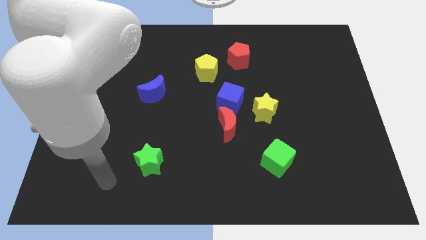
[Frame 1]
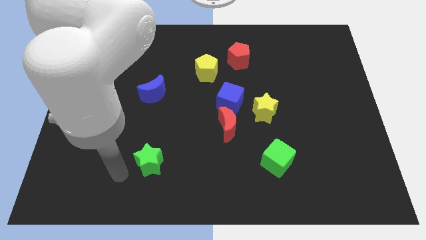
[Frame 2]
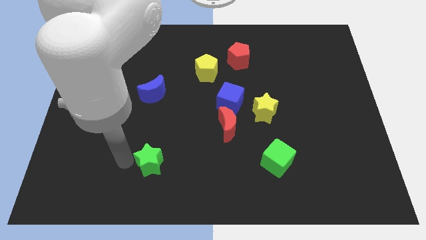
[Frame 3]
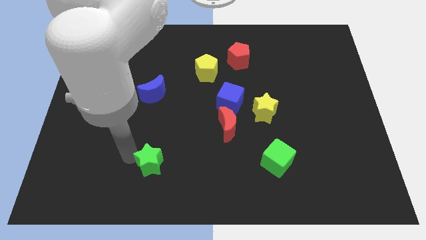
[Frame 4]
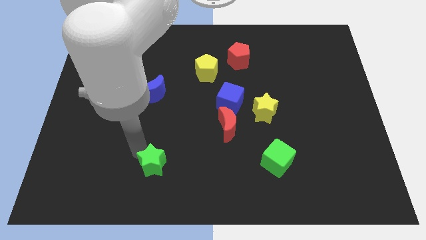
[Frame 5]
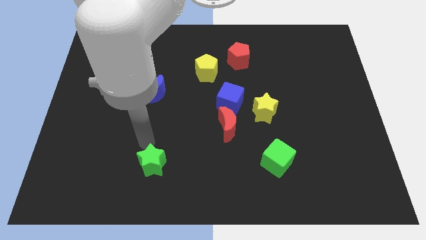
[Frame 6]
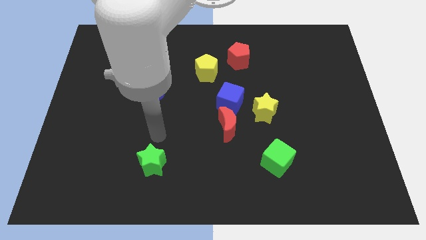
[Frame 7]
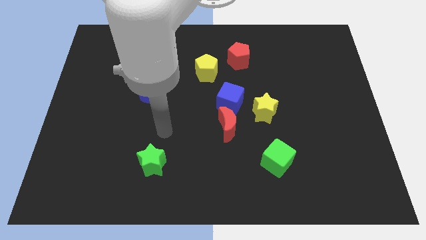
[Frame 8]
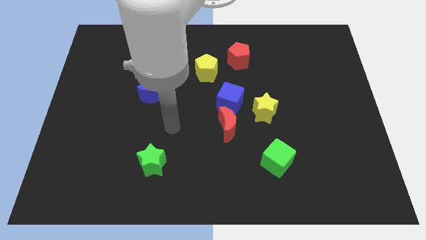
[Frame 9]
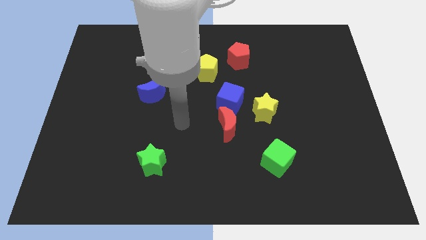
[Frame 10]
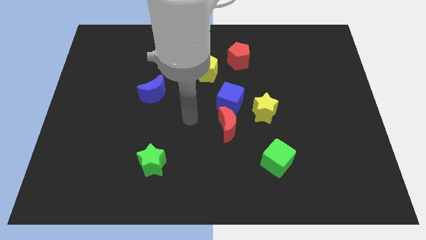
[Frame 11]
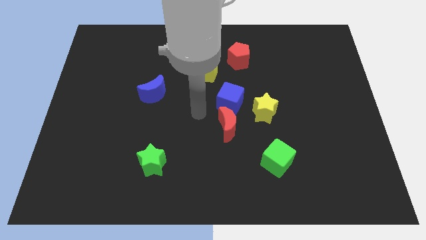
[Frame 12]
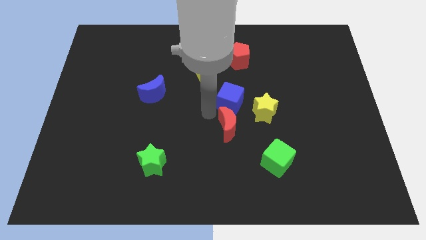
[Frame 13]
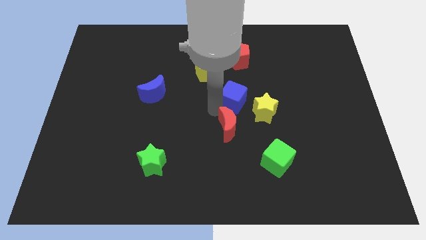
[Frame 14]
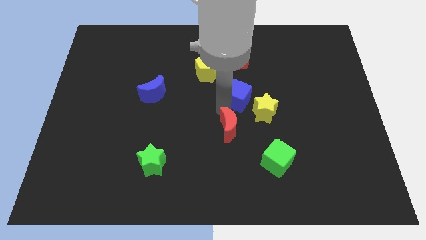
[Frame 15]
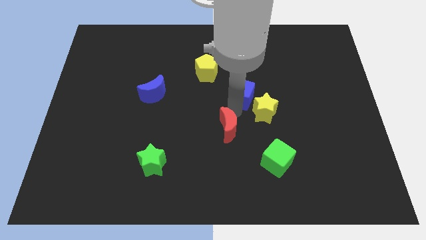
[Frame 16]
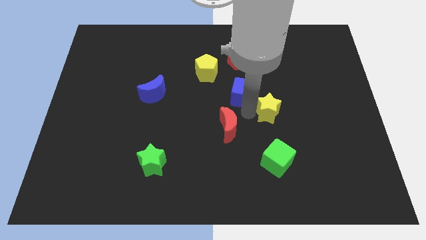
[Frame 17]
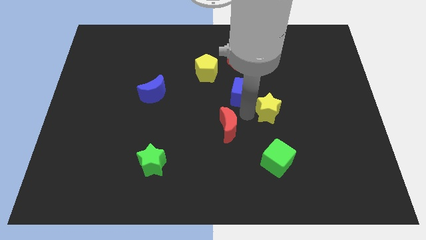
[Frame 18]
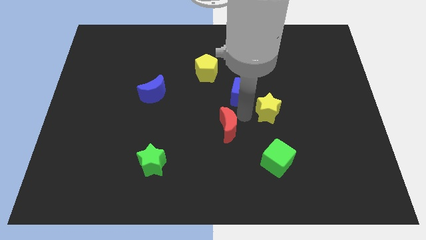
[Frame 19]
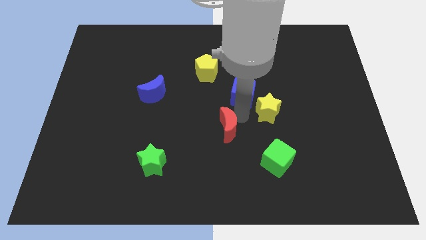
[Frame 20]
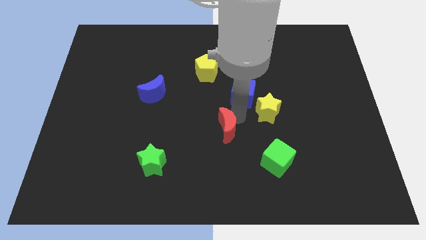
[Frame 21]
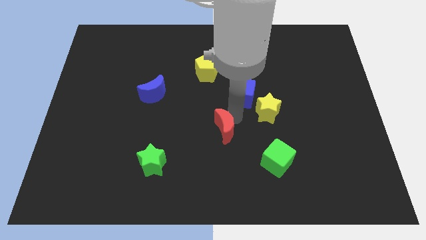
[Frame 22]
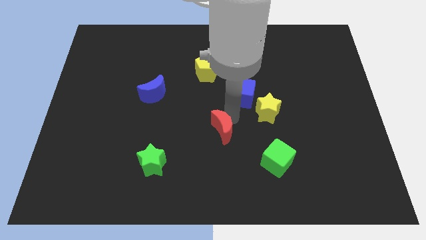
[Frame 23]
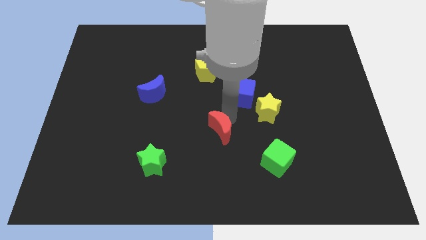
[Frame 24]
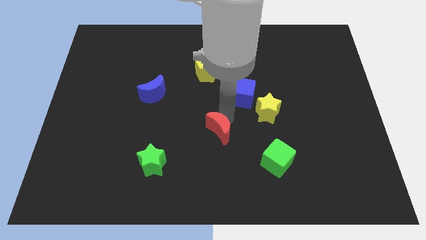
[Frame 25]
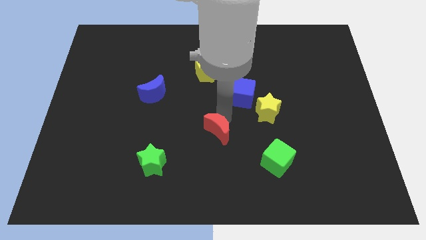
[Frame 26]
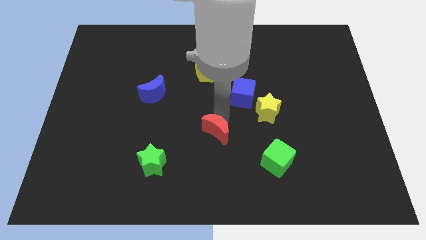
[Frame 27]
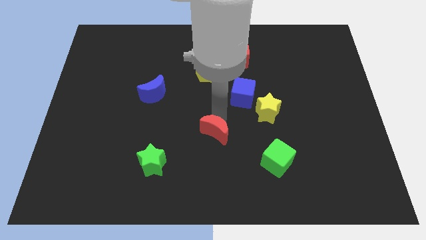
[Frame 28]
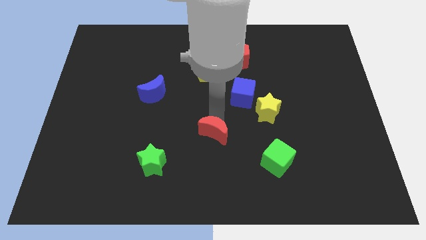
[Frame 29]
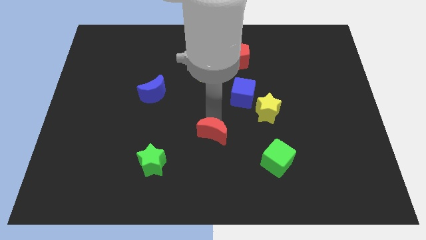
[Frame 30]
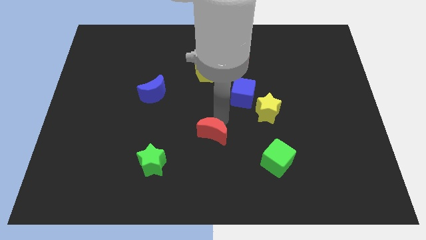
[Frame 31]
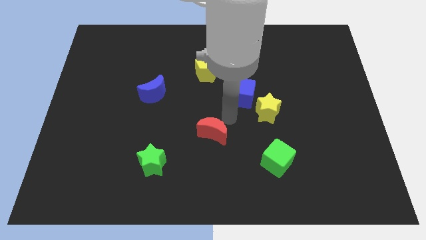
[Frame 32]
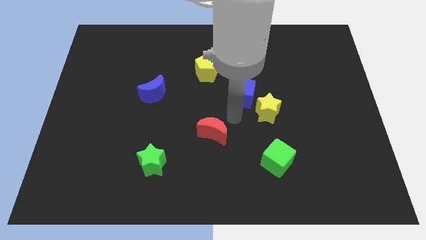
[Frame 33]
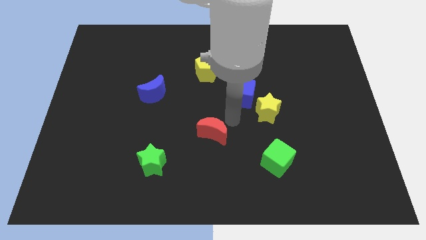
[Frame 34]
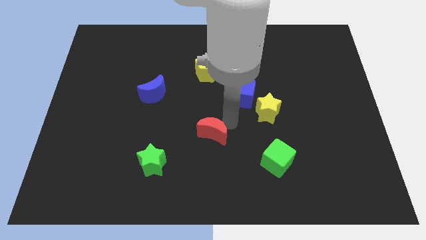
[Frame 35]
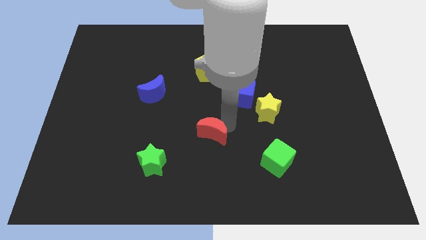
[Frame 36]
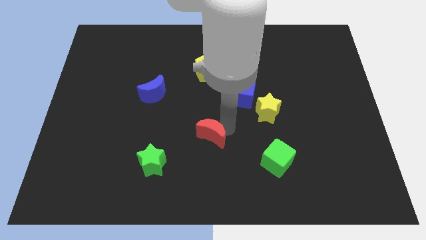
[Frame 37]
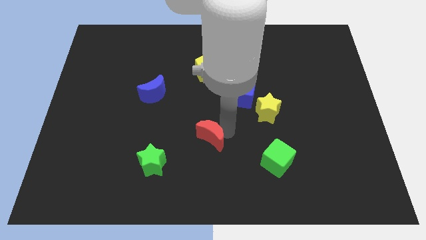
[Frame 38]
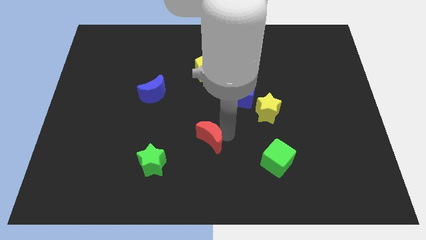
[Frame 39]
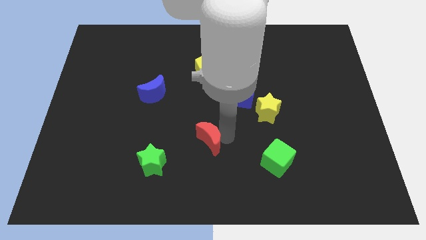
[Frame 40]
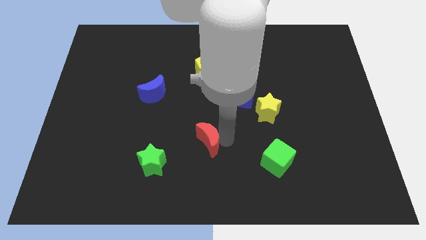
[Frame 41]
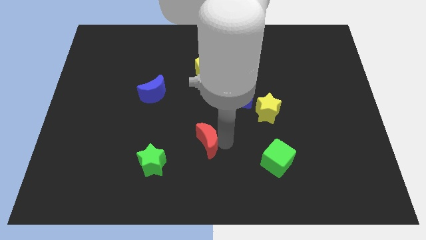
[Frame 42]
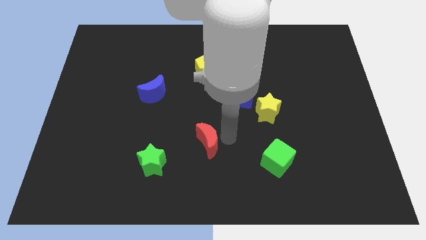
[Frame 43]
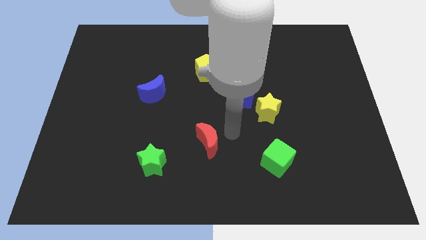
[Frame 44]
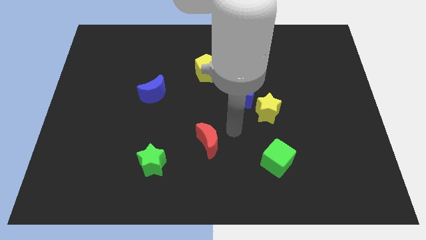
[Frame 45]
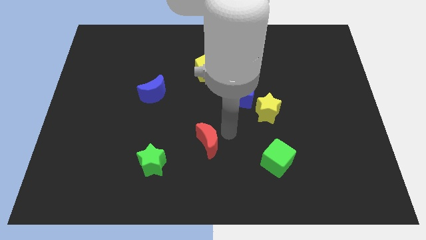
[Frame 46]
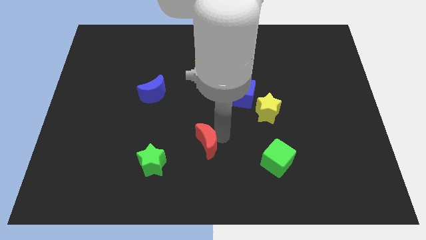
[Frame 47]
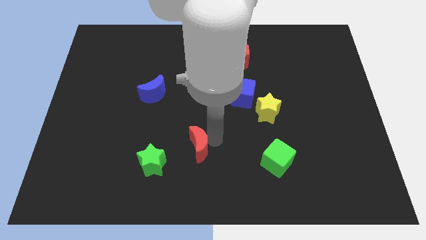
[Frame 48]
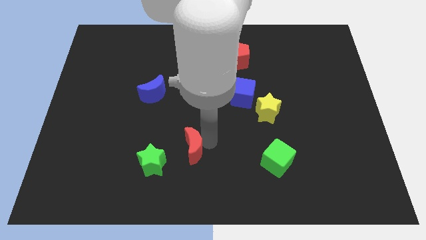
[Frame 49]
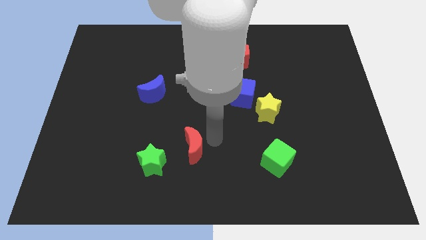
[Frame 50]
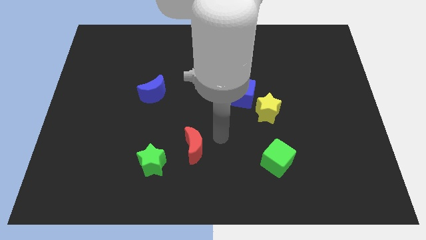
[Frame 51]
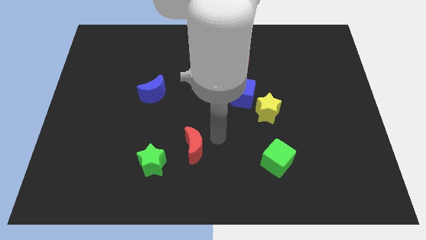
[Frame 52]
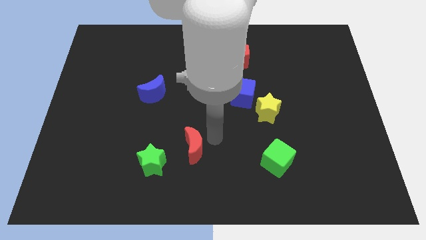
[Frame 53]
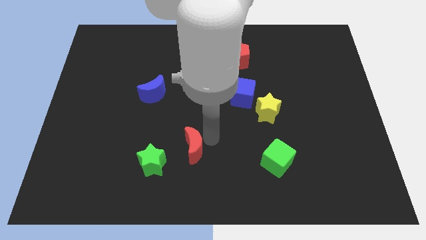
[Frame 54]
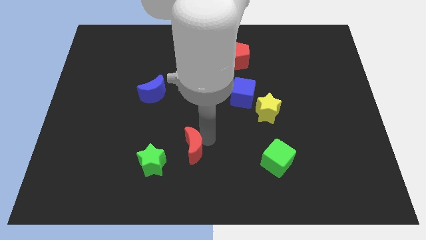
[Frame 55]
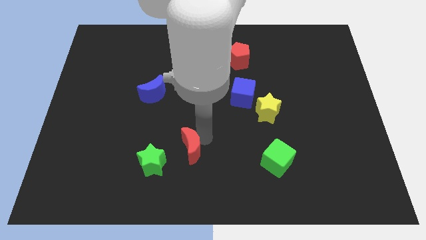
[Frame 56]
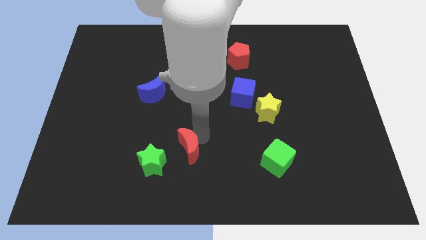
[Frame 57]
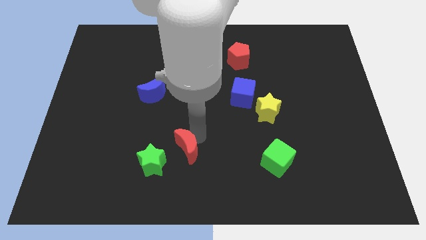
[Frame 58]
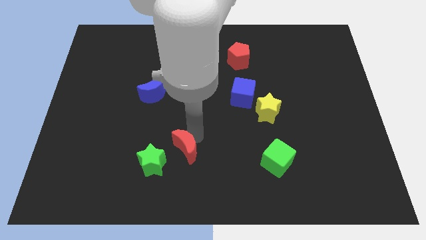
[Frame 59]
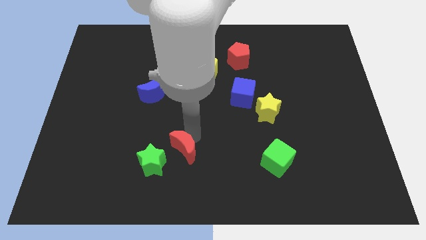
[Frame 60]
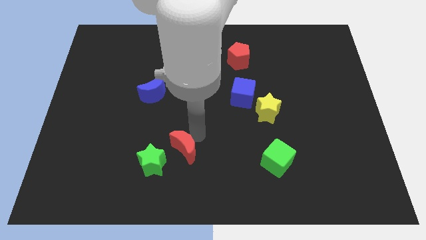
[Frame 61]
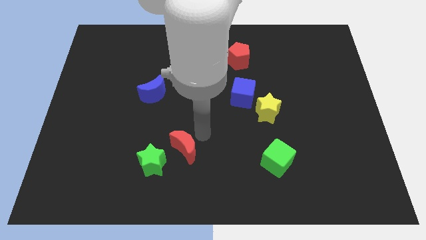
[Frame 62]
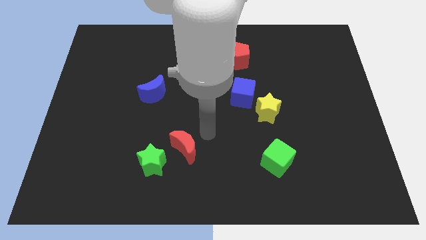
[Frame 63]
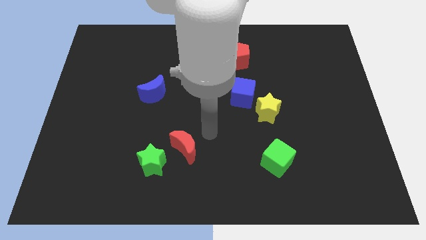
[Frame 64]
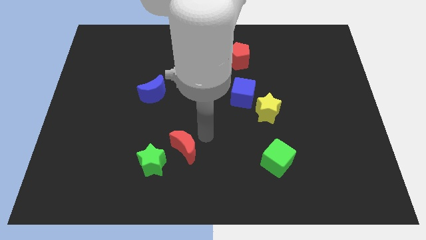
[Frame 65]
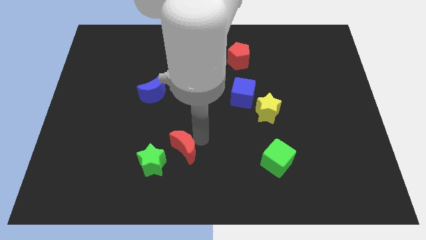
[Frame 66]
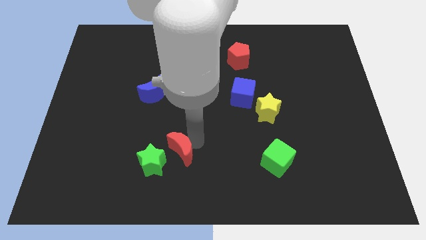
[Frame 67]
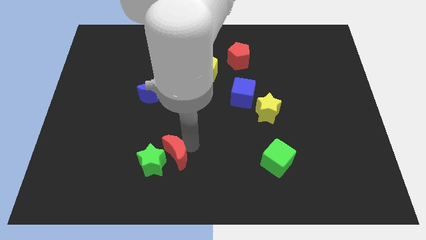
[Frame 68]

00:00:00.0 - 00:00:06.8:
push the red moon towards the green star
